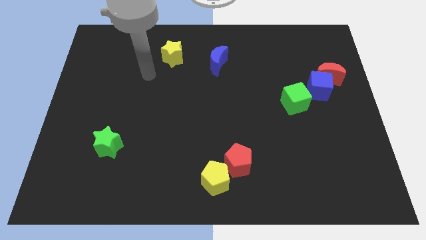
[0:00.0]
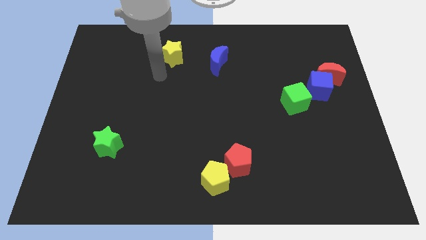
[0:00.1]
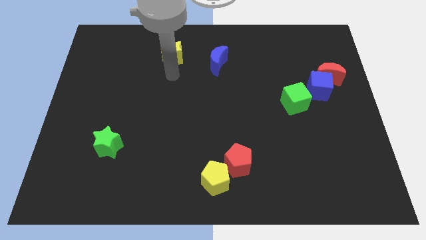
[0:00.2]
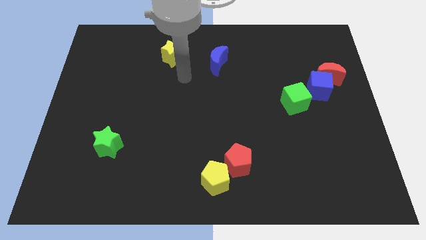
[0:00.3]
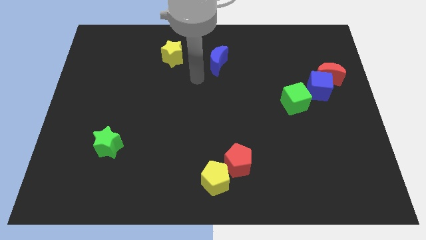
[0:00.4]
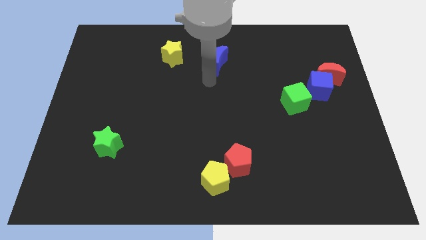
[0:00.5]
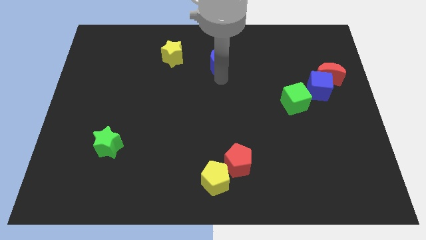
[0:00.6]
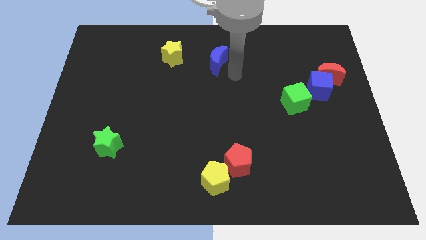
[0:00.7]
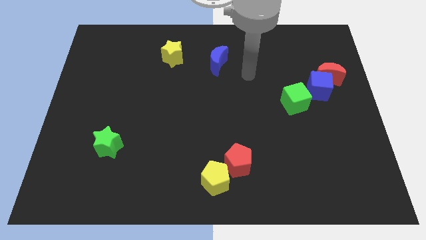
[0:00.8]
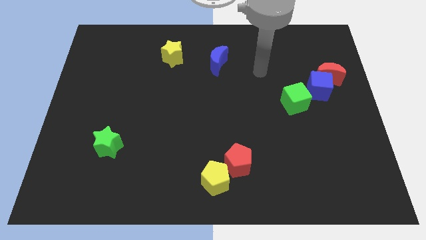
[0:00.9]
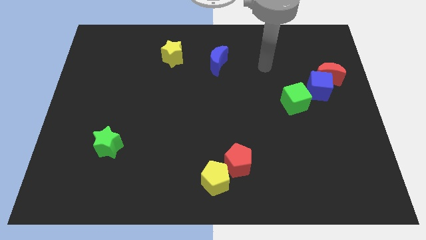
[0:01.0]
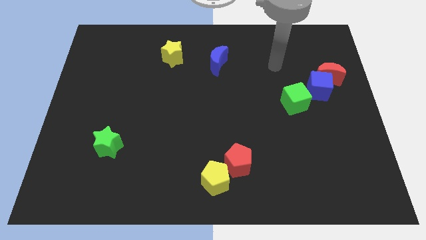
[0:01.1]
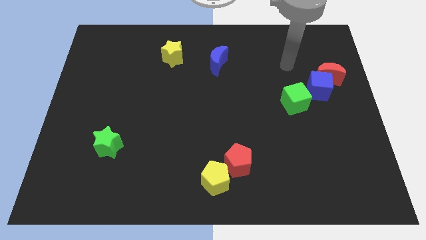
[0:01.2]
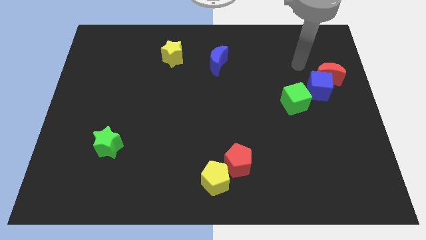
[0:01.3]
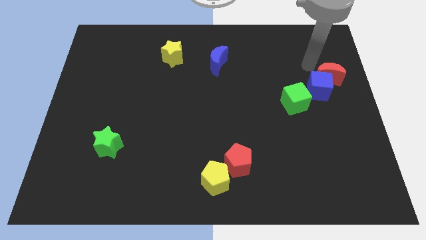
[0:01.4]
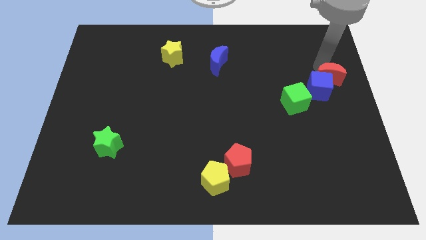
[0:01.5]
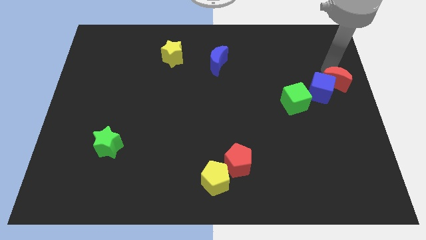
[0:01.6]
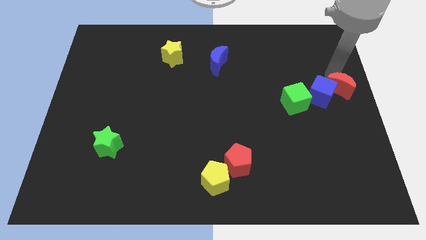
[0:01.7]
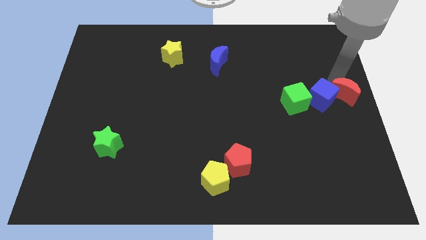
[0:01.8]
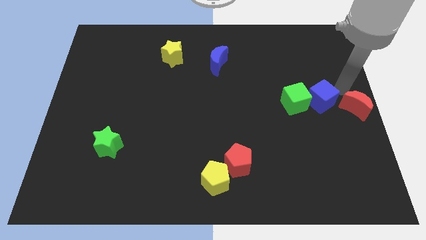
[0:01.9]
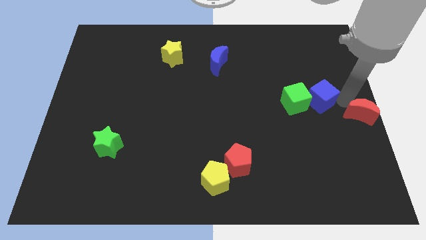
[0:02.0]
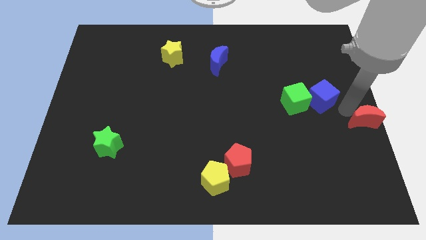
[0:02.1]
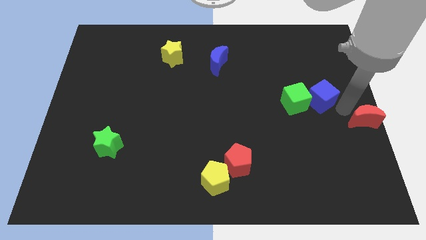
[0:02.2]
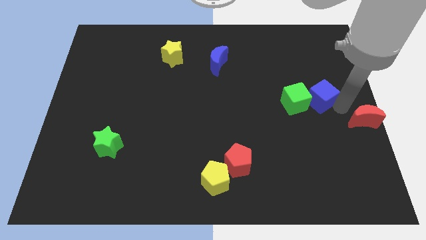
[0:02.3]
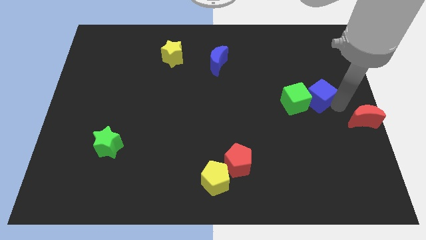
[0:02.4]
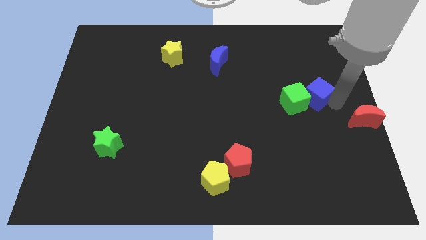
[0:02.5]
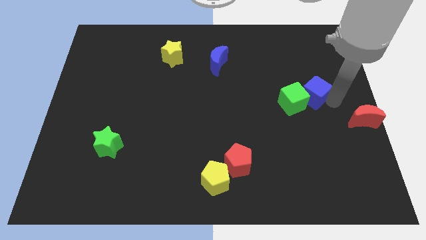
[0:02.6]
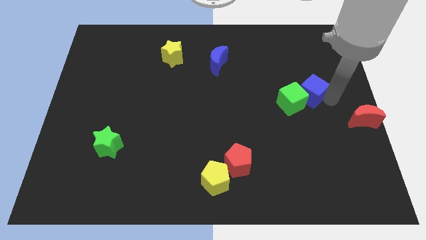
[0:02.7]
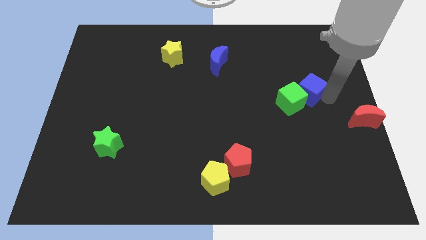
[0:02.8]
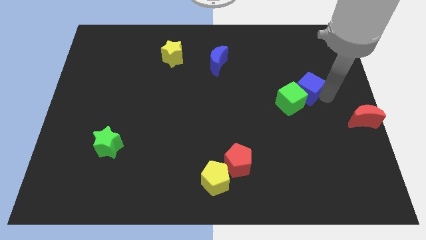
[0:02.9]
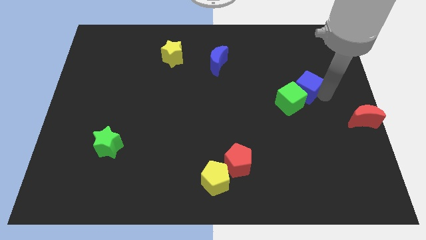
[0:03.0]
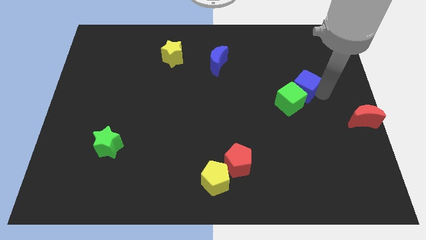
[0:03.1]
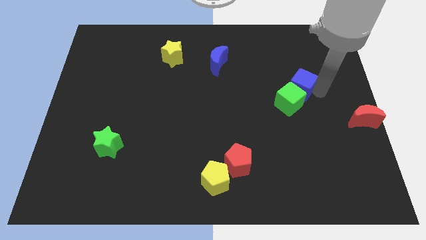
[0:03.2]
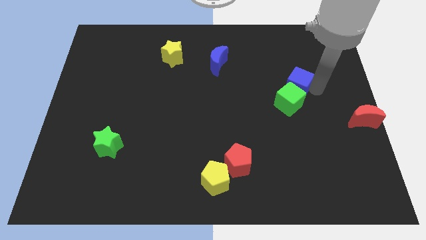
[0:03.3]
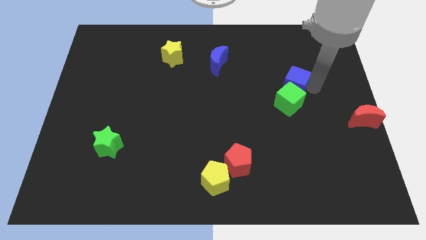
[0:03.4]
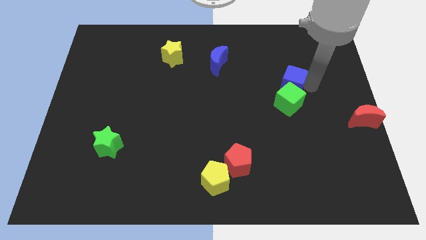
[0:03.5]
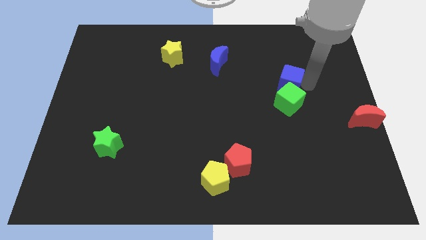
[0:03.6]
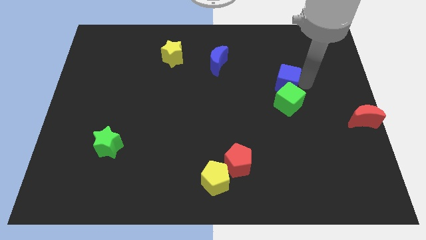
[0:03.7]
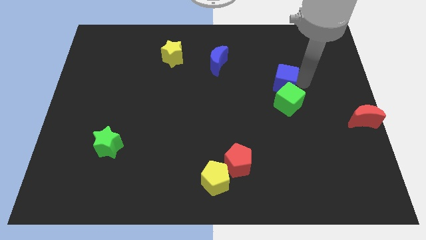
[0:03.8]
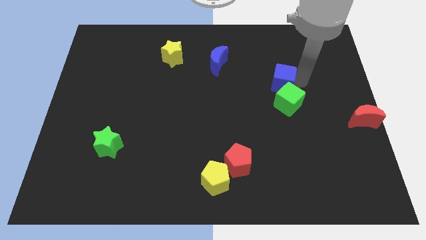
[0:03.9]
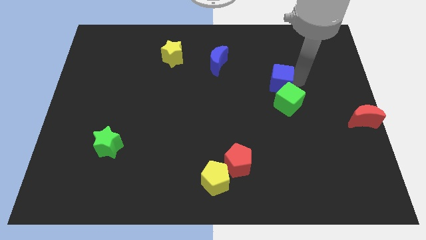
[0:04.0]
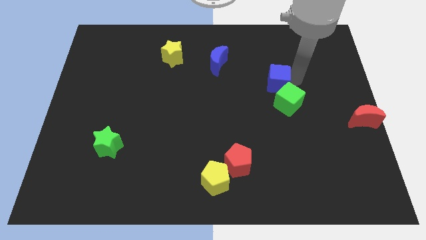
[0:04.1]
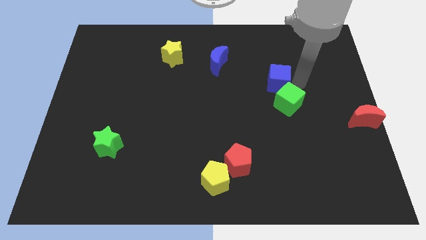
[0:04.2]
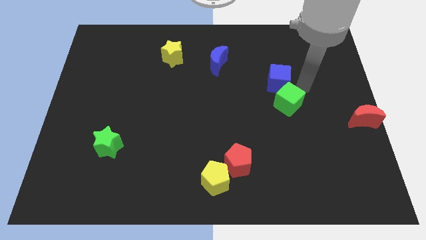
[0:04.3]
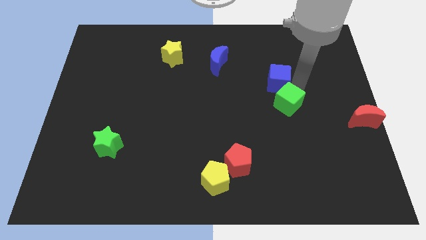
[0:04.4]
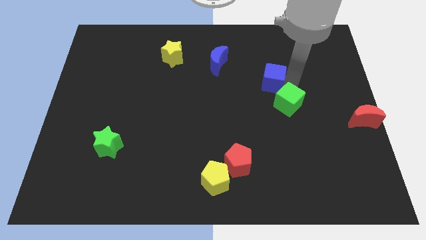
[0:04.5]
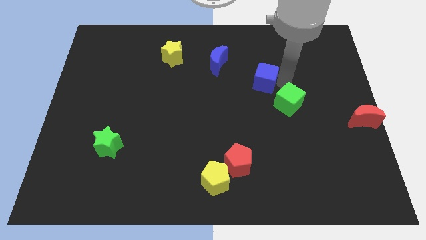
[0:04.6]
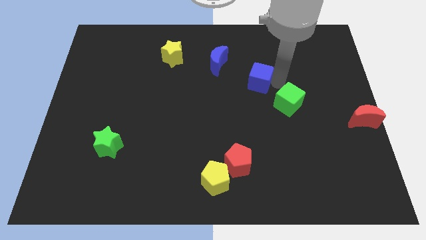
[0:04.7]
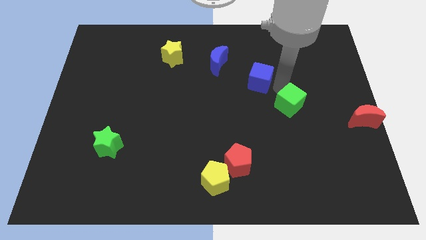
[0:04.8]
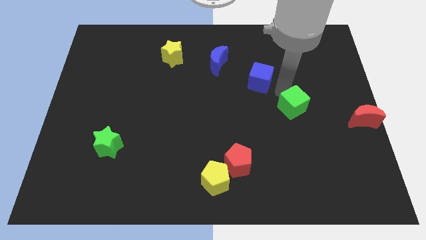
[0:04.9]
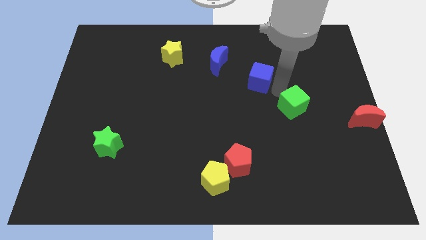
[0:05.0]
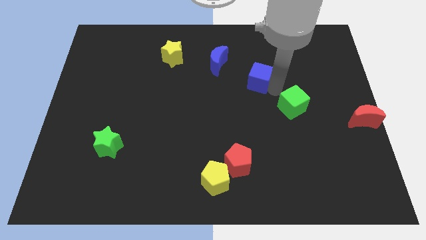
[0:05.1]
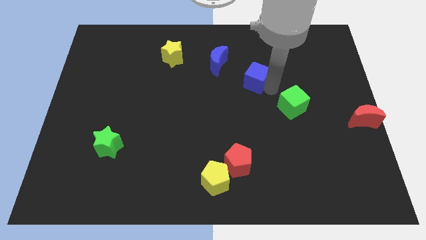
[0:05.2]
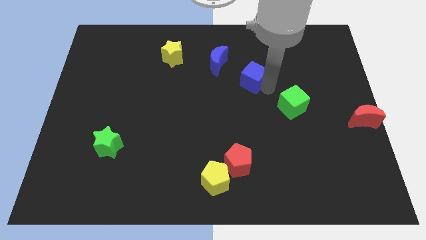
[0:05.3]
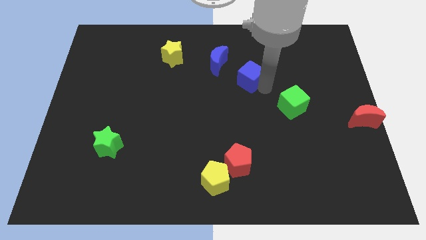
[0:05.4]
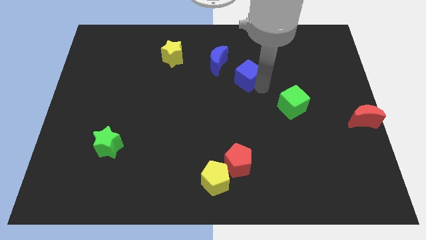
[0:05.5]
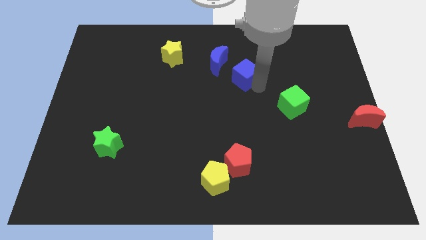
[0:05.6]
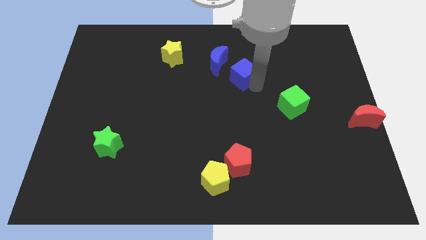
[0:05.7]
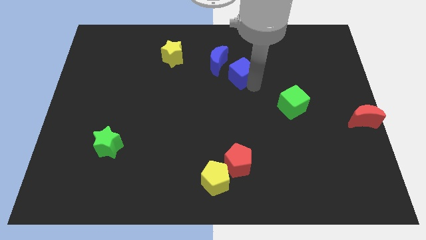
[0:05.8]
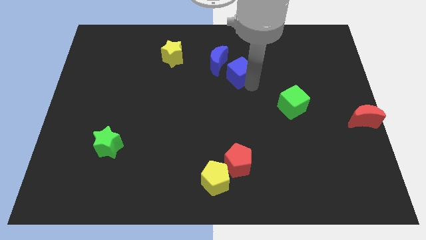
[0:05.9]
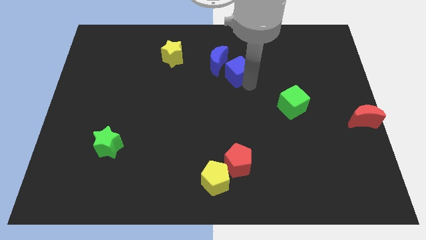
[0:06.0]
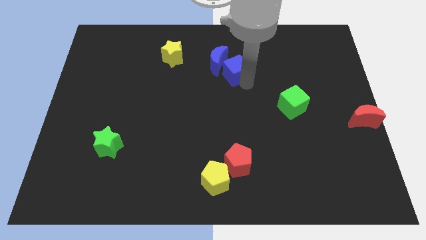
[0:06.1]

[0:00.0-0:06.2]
push the blue cube to the blue moon

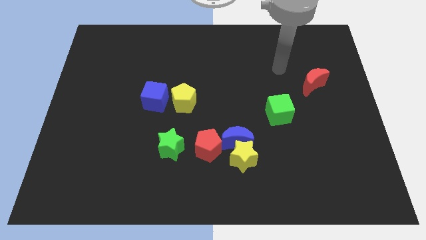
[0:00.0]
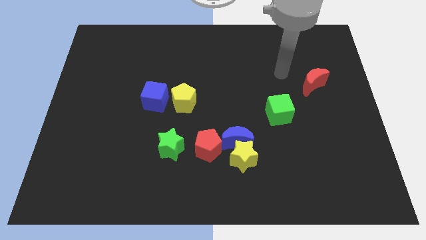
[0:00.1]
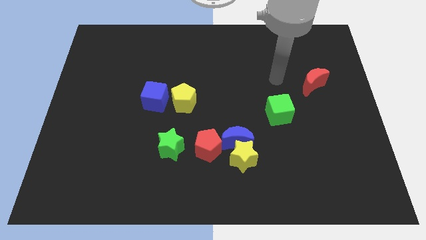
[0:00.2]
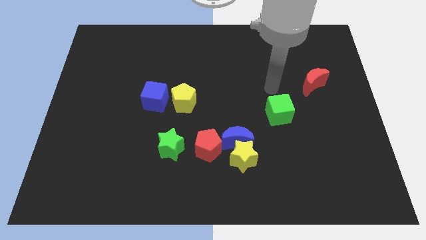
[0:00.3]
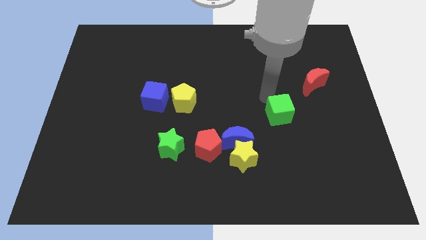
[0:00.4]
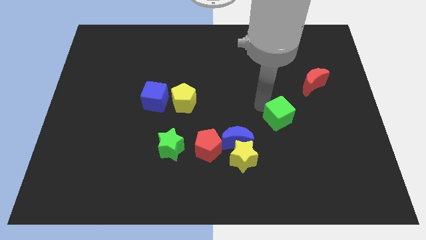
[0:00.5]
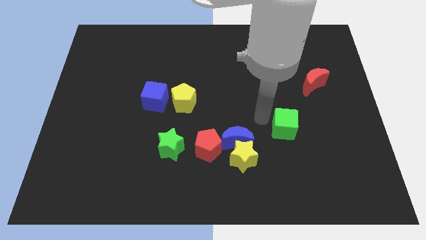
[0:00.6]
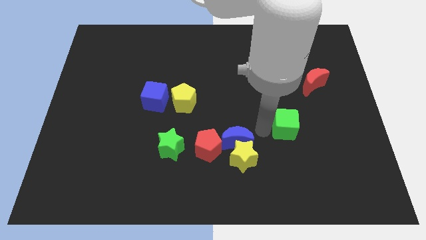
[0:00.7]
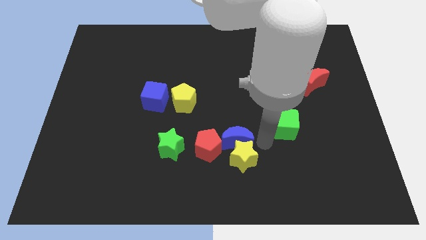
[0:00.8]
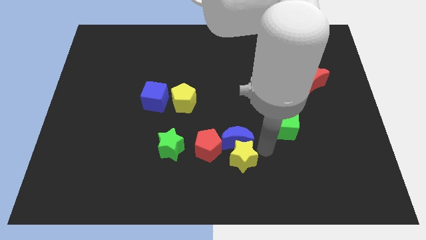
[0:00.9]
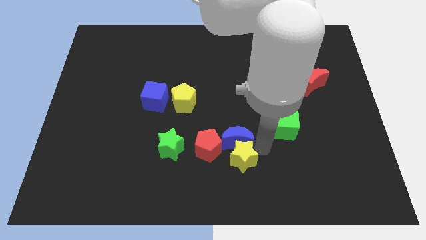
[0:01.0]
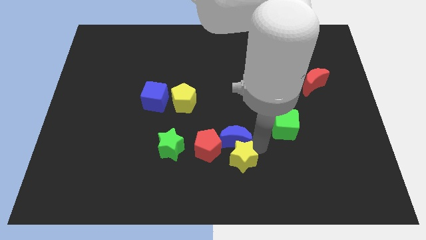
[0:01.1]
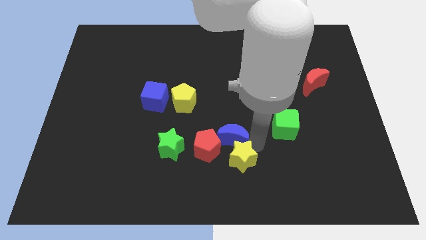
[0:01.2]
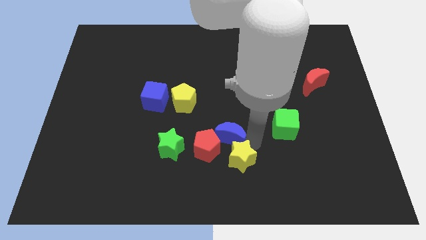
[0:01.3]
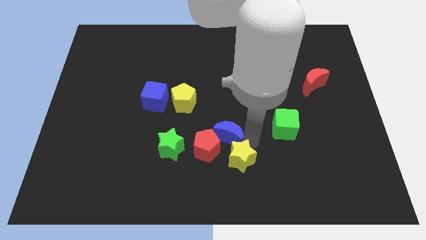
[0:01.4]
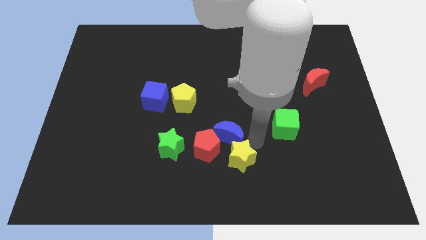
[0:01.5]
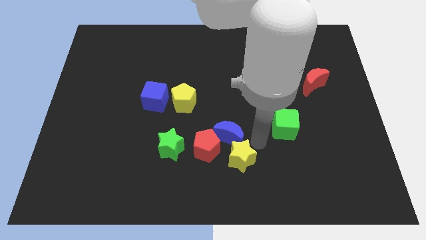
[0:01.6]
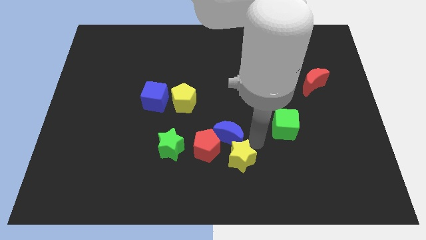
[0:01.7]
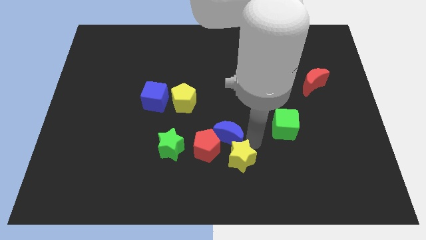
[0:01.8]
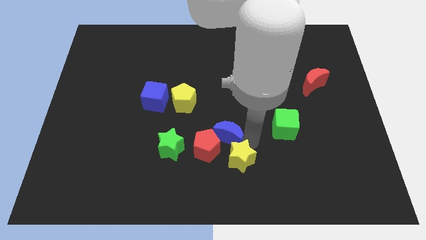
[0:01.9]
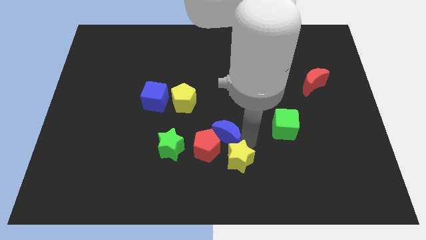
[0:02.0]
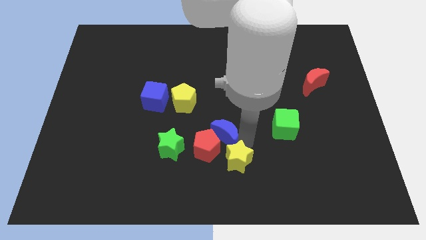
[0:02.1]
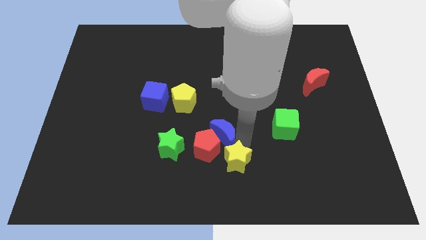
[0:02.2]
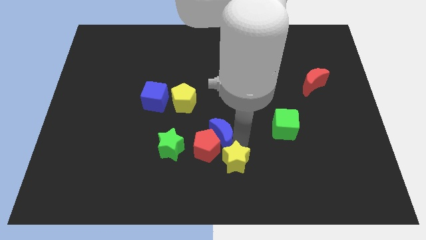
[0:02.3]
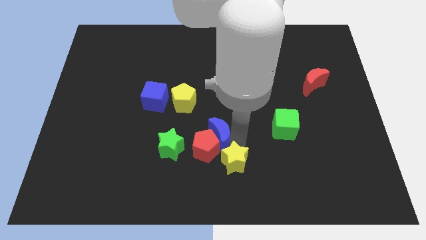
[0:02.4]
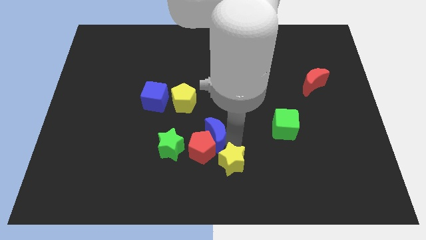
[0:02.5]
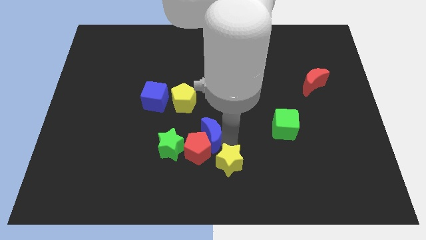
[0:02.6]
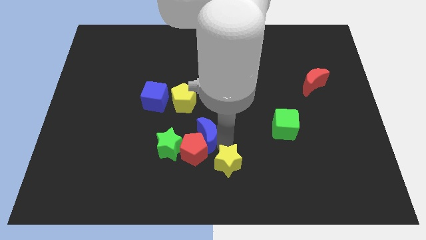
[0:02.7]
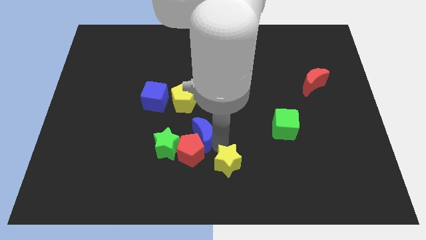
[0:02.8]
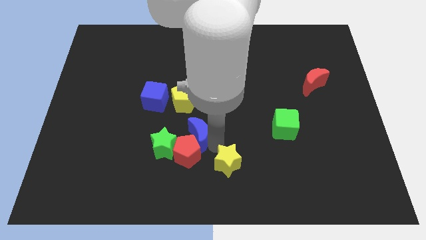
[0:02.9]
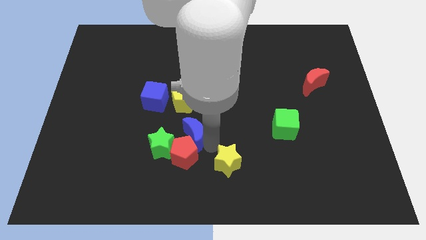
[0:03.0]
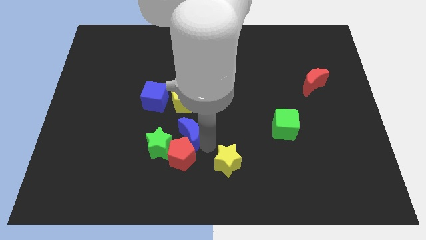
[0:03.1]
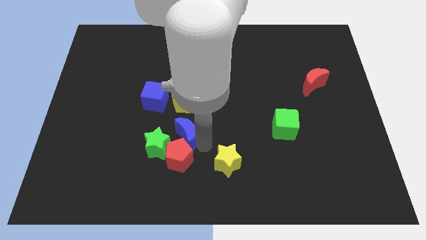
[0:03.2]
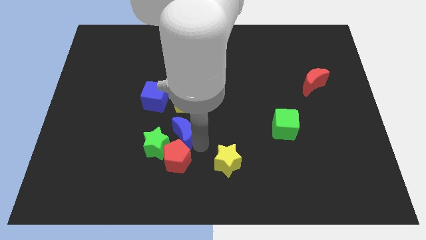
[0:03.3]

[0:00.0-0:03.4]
put the blue moon towards the green star
